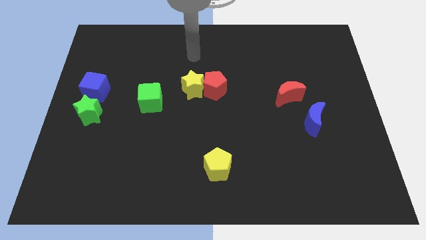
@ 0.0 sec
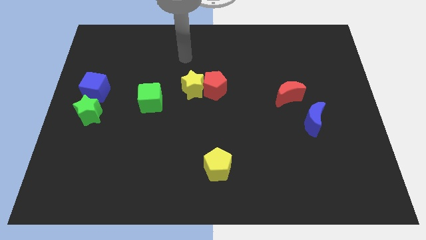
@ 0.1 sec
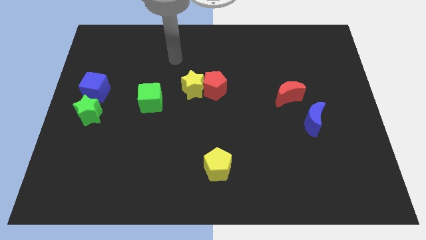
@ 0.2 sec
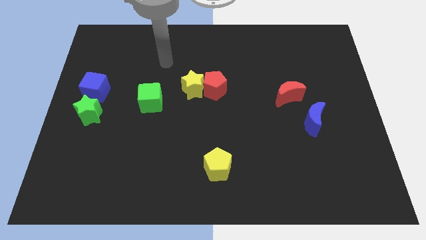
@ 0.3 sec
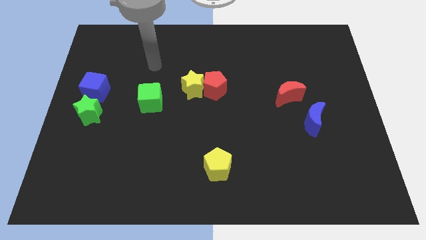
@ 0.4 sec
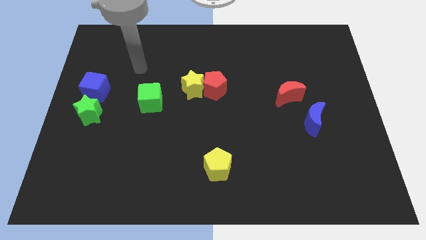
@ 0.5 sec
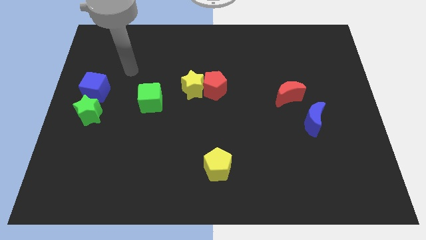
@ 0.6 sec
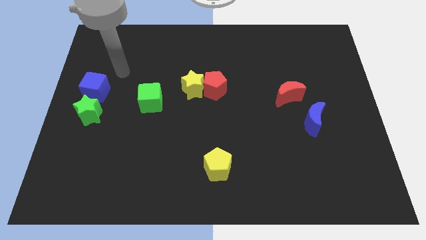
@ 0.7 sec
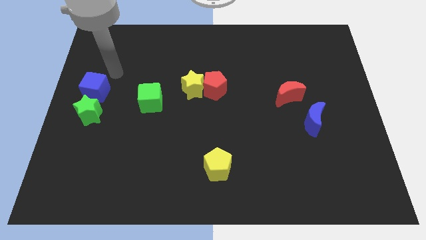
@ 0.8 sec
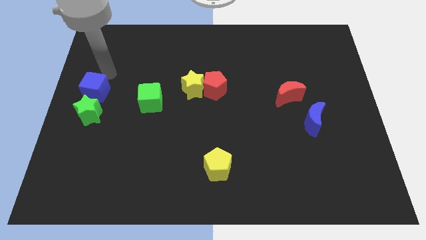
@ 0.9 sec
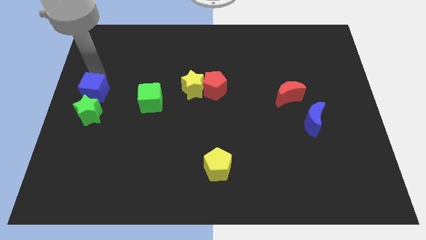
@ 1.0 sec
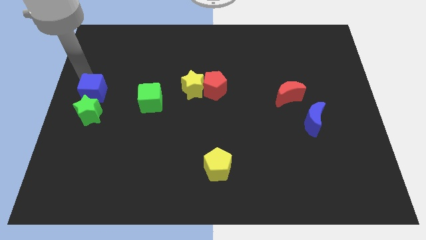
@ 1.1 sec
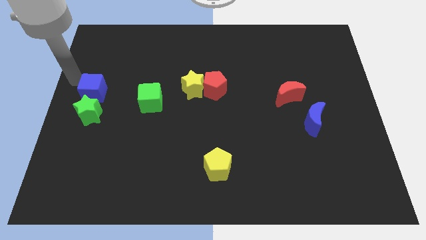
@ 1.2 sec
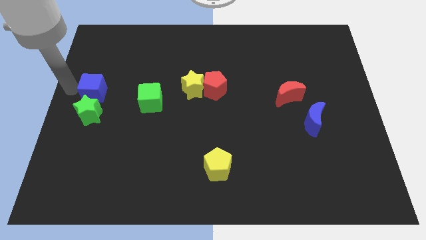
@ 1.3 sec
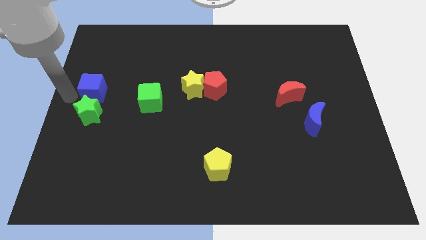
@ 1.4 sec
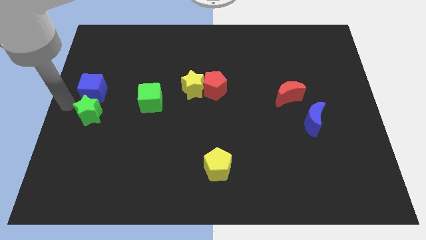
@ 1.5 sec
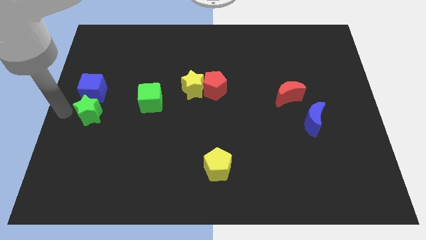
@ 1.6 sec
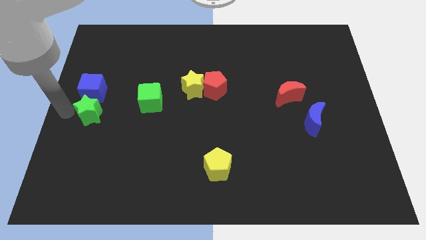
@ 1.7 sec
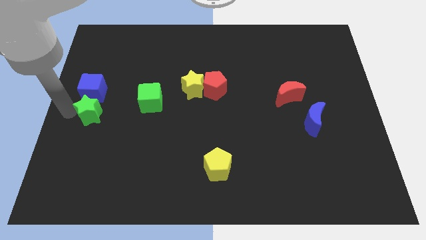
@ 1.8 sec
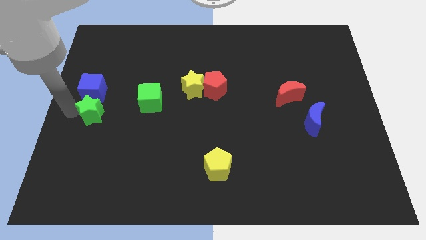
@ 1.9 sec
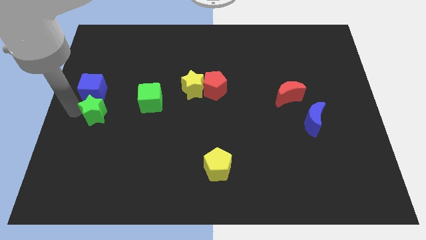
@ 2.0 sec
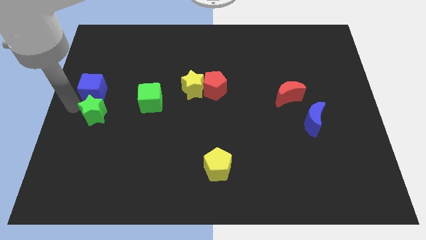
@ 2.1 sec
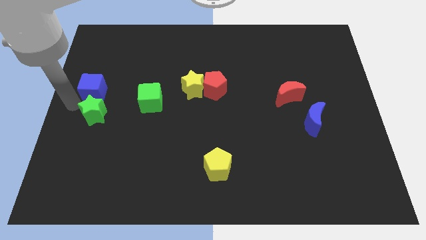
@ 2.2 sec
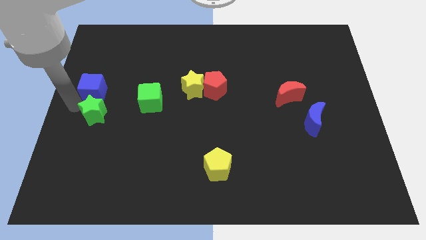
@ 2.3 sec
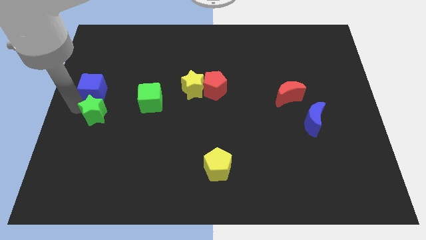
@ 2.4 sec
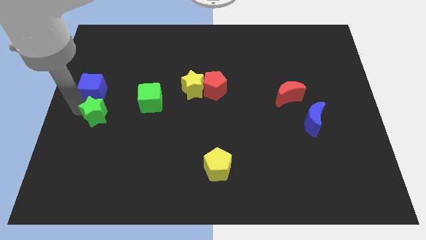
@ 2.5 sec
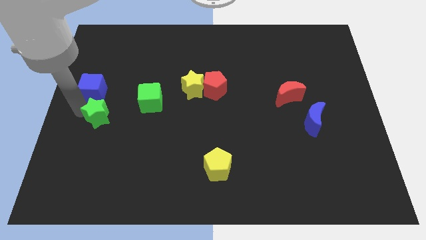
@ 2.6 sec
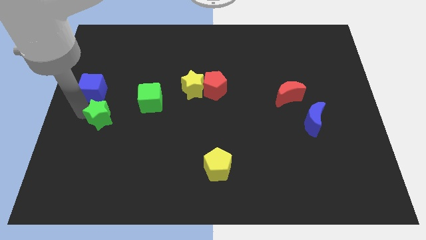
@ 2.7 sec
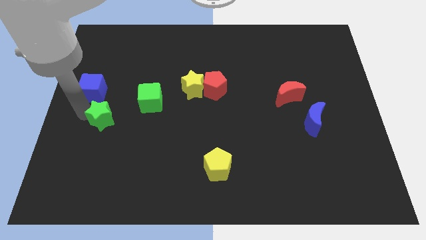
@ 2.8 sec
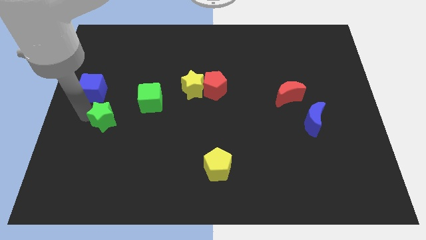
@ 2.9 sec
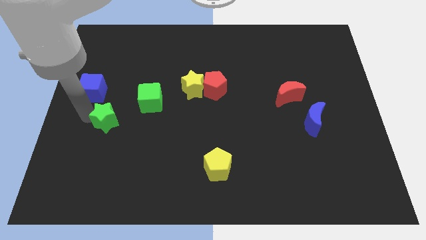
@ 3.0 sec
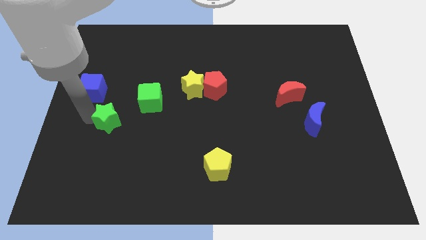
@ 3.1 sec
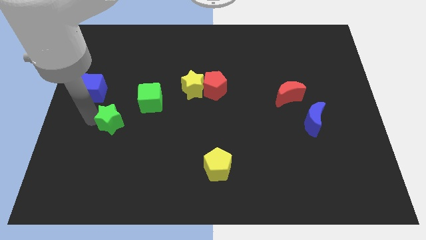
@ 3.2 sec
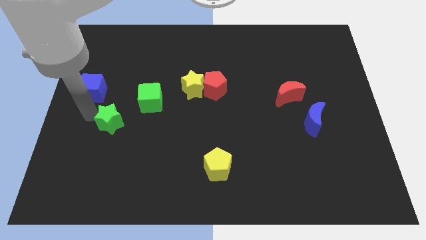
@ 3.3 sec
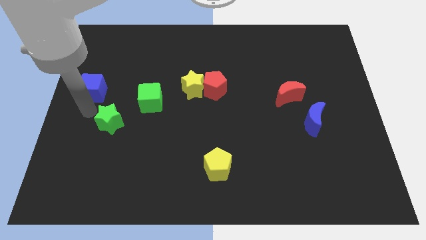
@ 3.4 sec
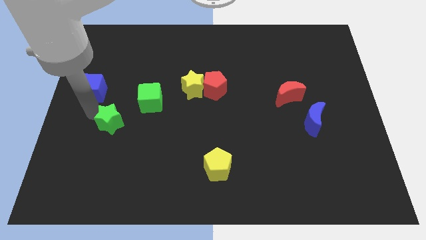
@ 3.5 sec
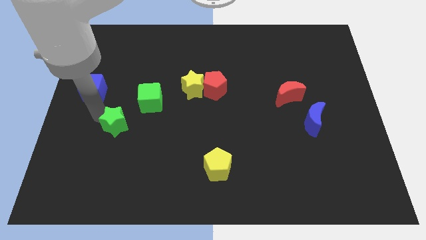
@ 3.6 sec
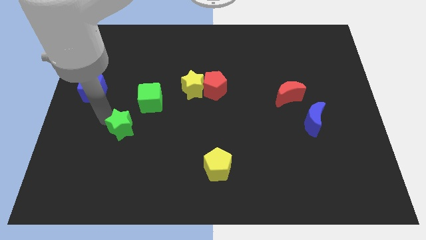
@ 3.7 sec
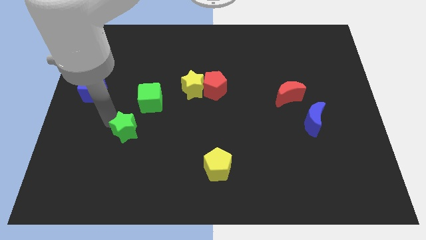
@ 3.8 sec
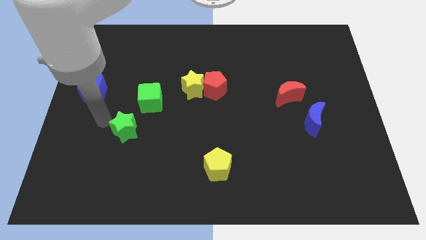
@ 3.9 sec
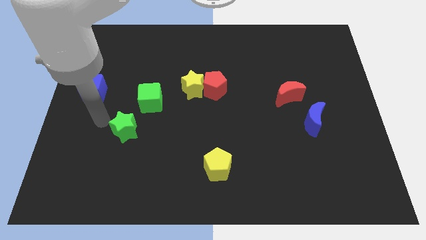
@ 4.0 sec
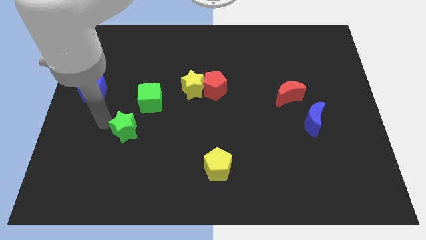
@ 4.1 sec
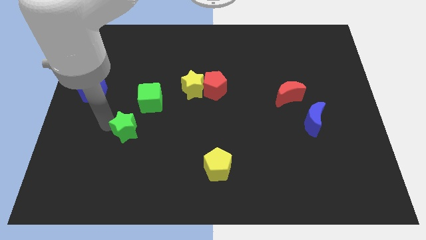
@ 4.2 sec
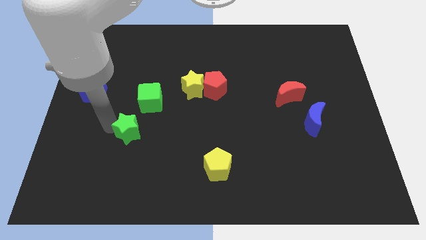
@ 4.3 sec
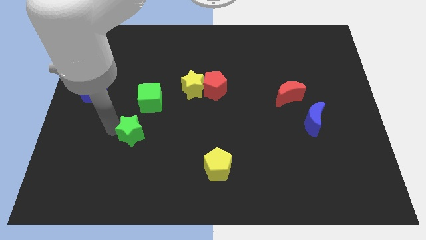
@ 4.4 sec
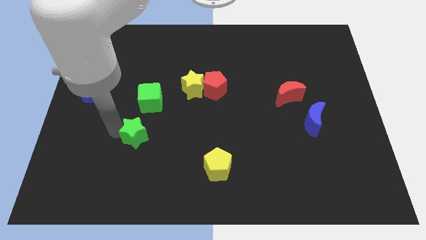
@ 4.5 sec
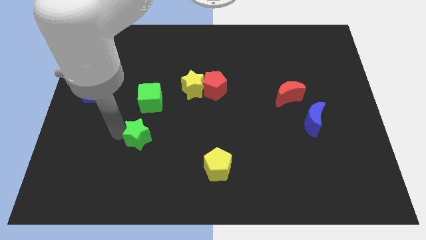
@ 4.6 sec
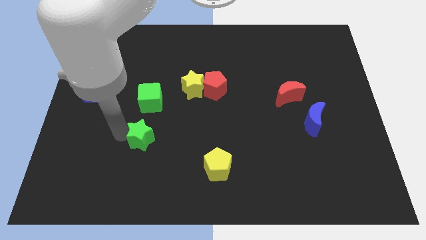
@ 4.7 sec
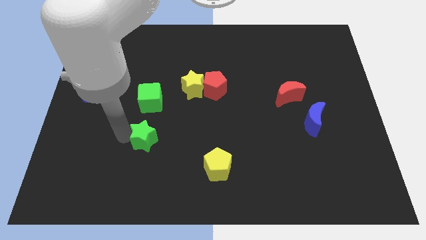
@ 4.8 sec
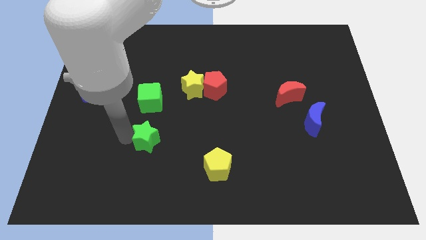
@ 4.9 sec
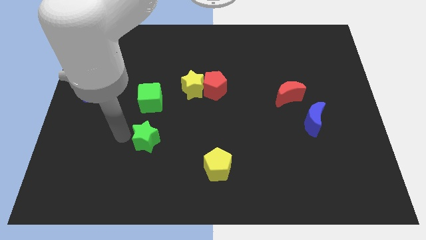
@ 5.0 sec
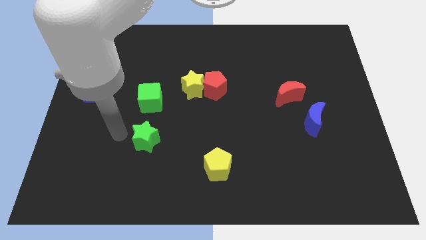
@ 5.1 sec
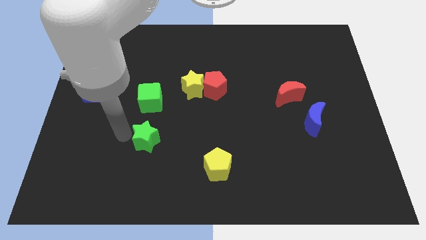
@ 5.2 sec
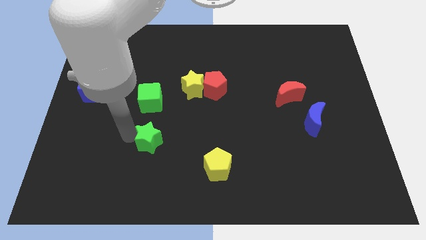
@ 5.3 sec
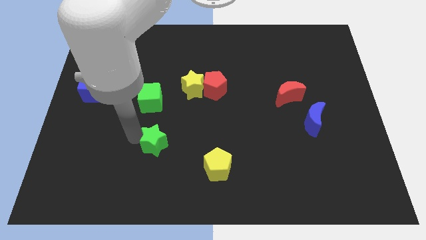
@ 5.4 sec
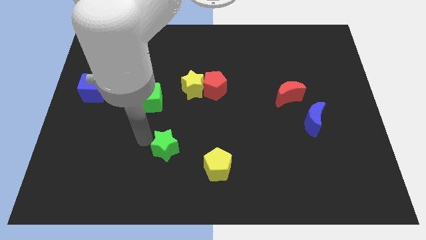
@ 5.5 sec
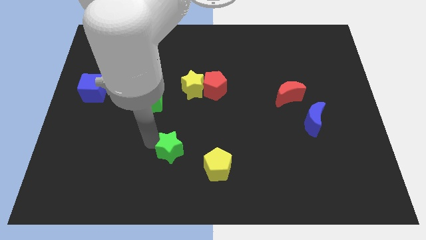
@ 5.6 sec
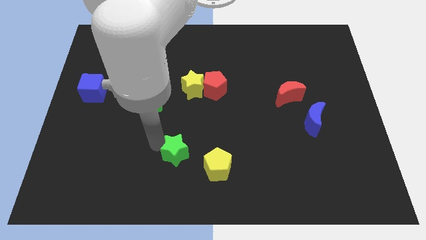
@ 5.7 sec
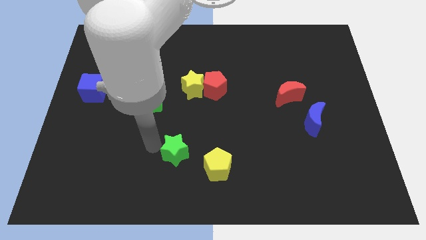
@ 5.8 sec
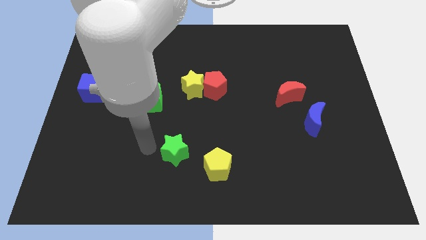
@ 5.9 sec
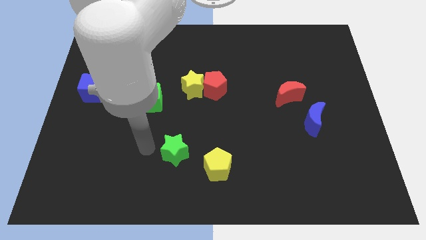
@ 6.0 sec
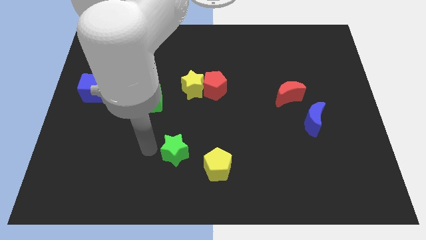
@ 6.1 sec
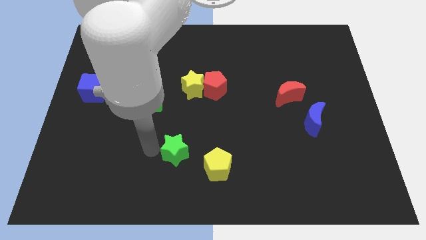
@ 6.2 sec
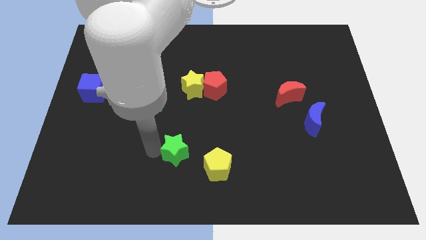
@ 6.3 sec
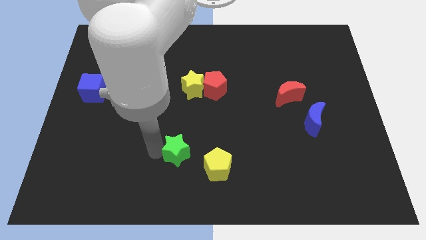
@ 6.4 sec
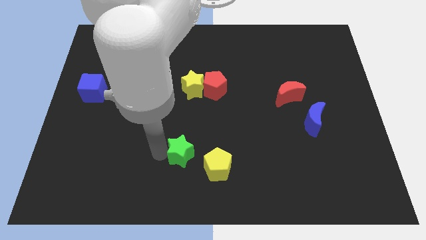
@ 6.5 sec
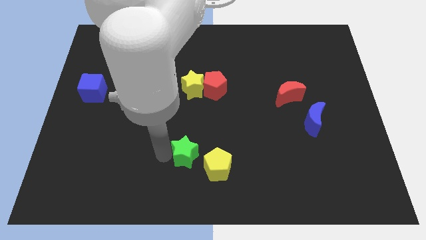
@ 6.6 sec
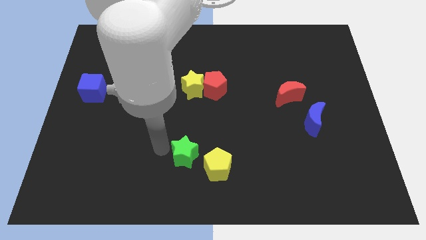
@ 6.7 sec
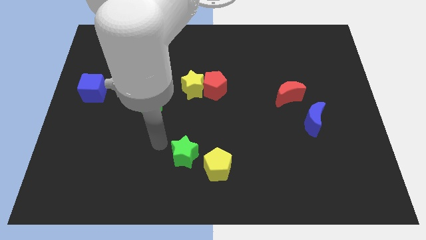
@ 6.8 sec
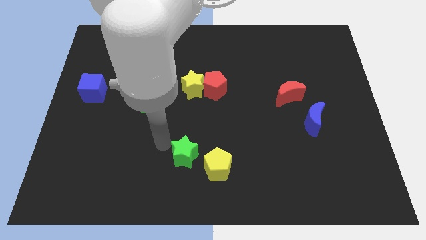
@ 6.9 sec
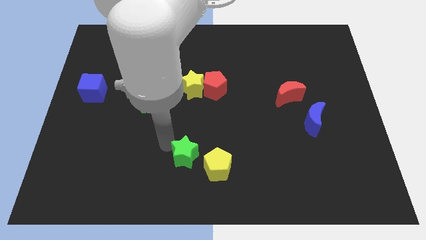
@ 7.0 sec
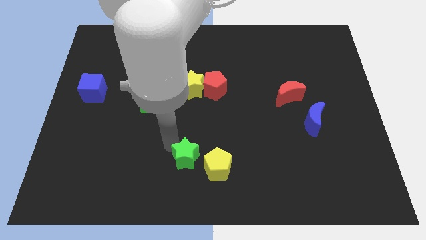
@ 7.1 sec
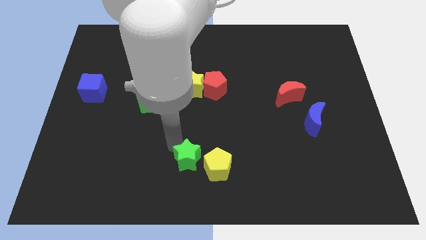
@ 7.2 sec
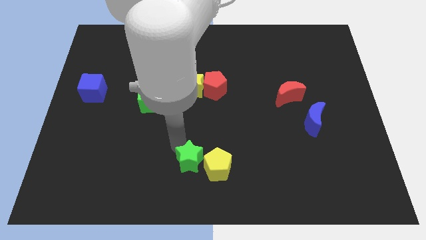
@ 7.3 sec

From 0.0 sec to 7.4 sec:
put the green star next to the yellow pentagon
